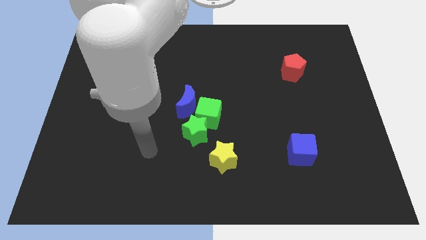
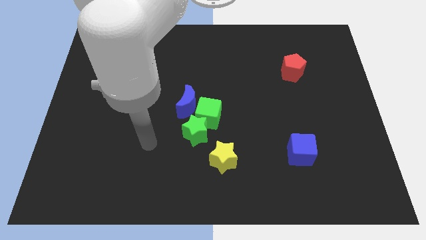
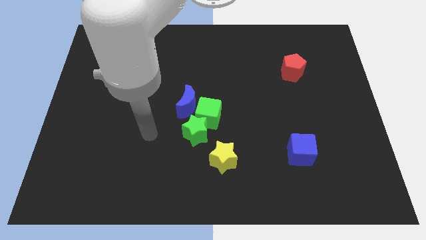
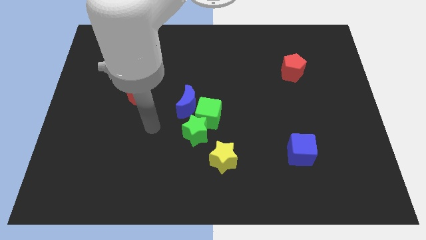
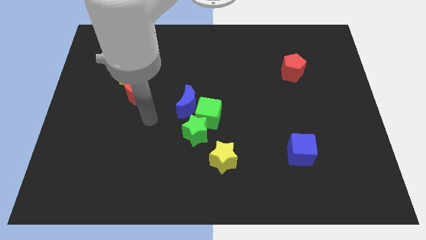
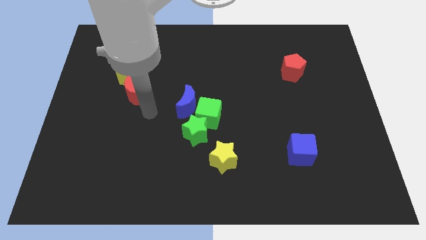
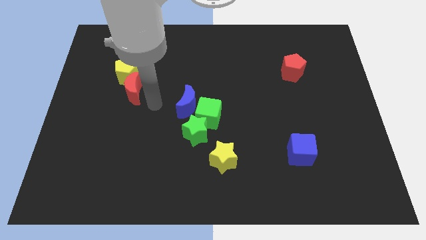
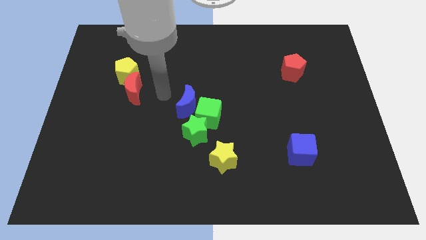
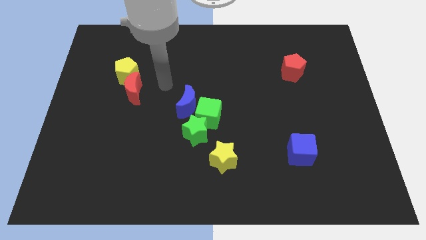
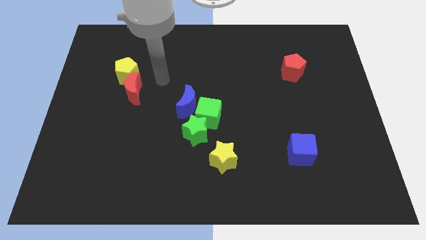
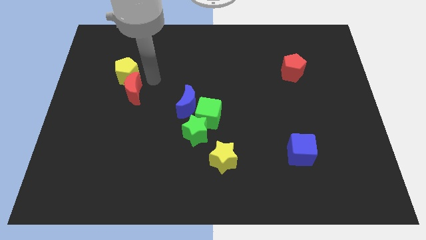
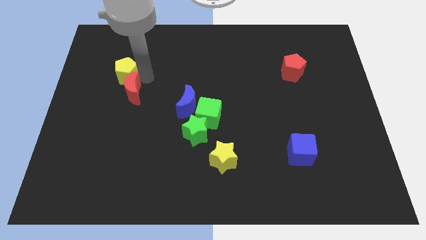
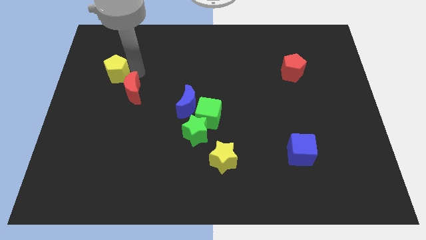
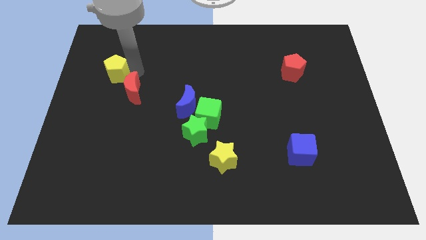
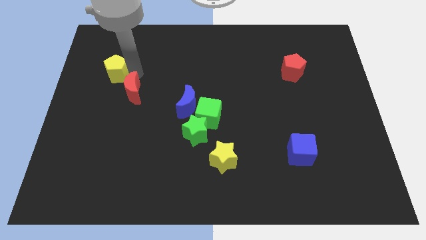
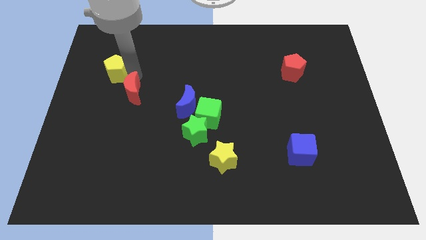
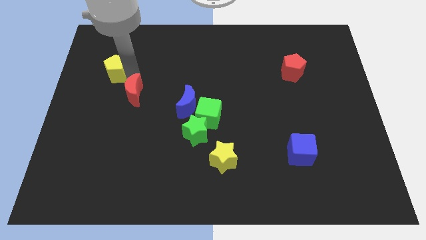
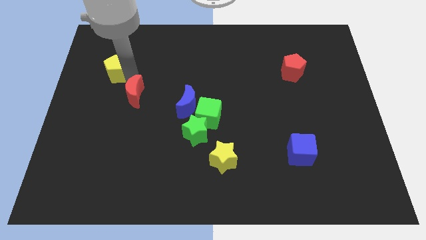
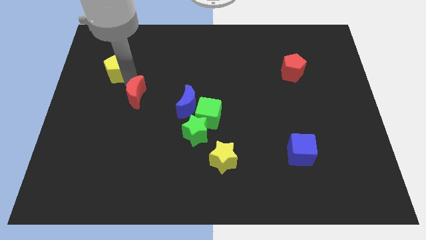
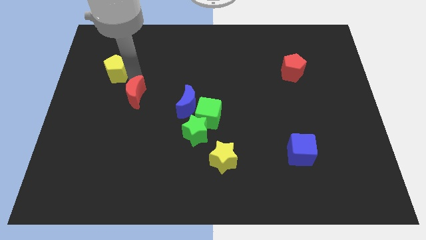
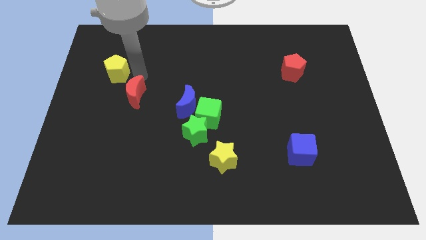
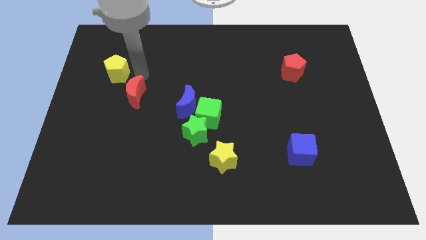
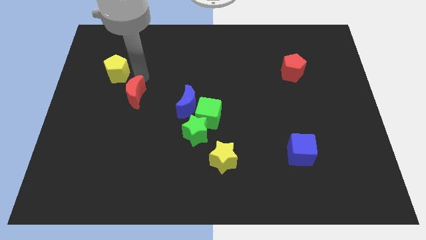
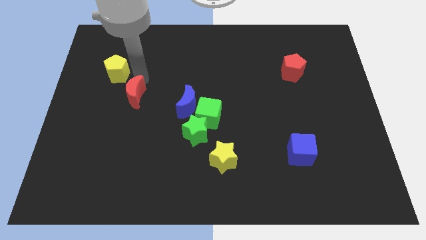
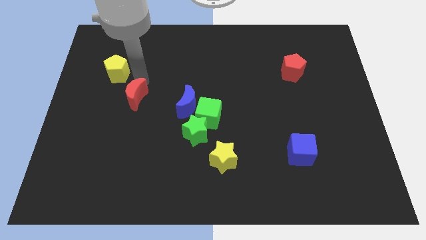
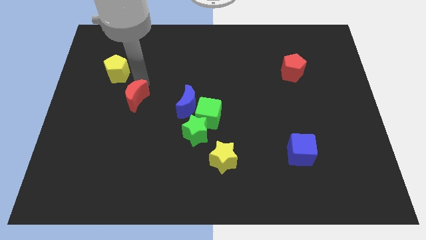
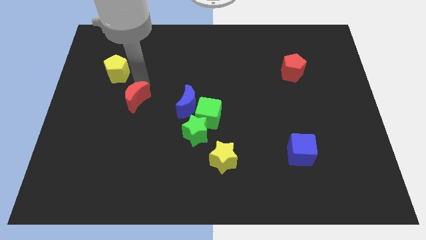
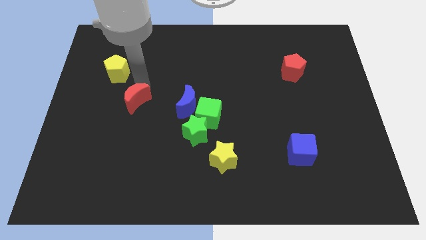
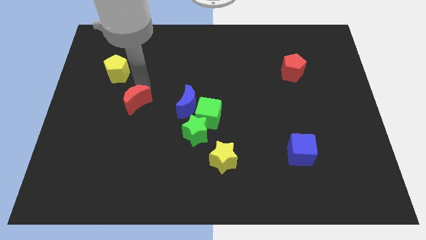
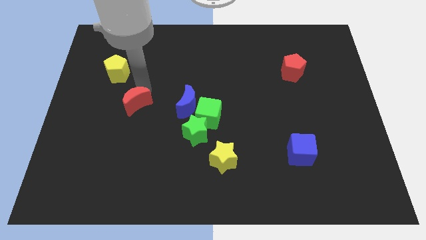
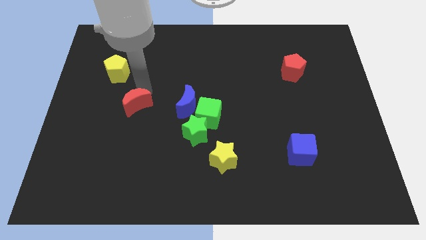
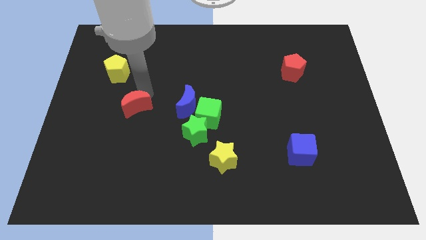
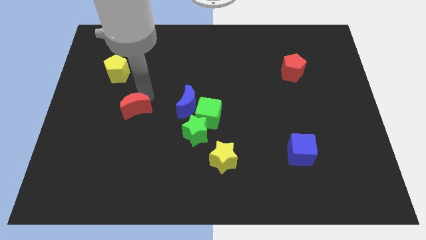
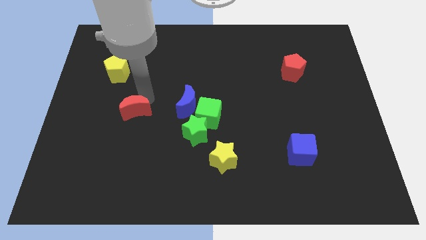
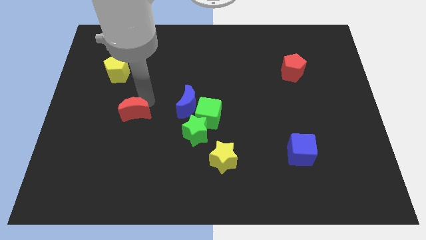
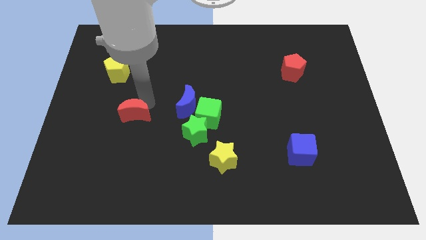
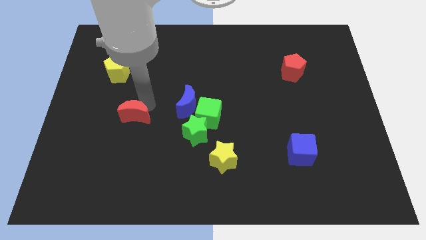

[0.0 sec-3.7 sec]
push the red moon somewhat downwards

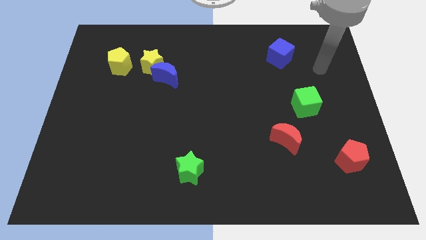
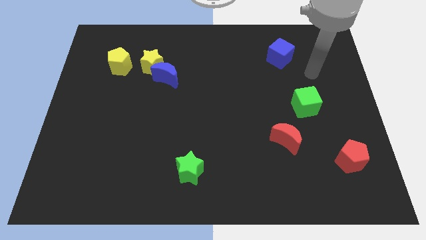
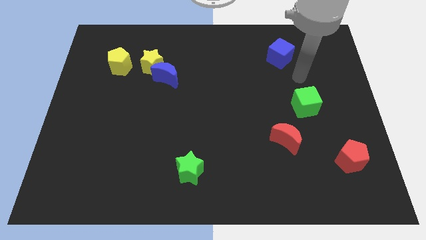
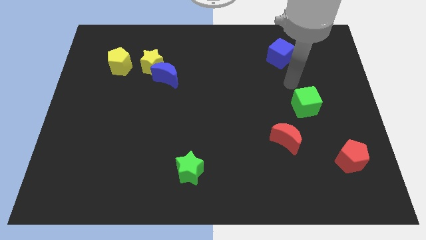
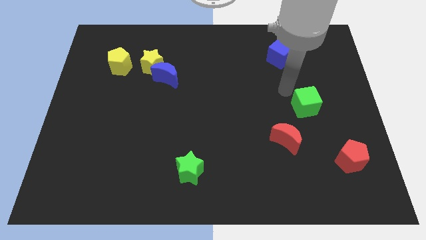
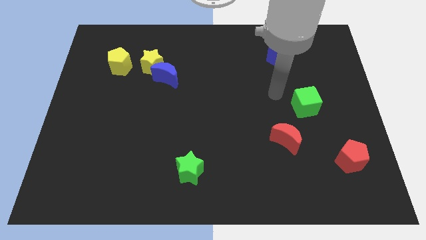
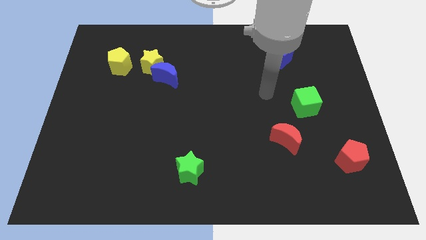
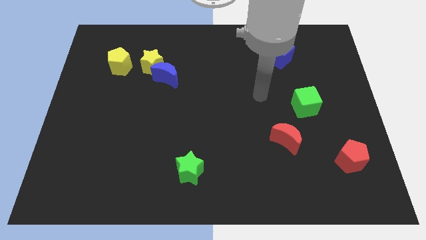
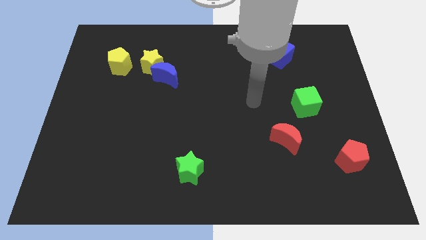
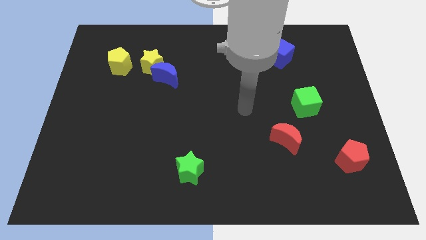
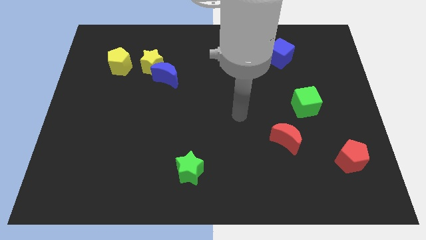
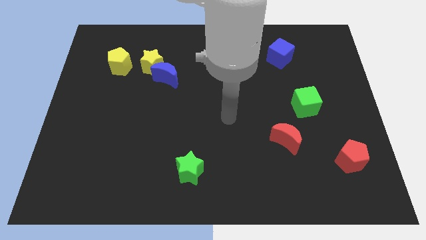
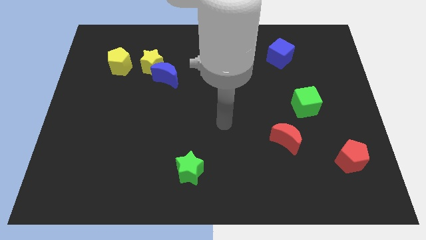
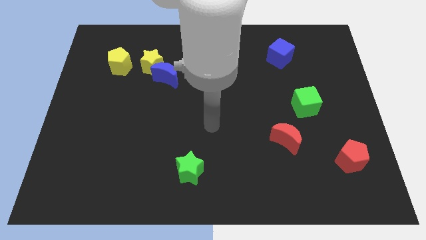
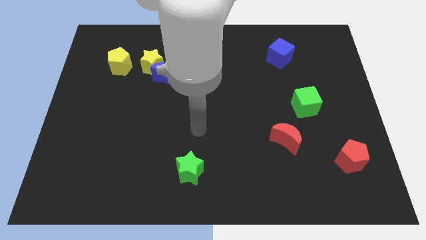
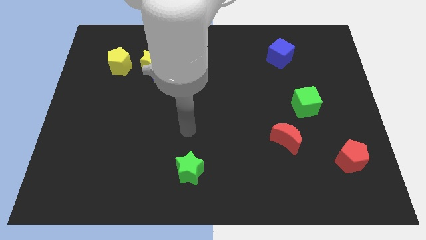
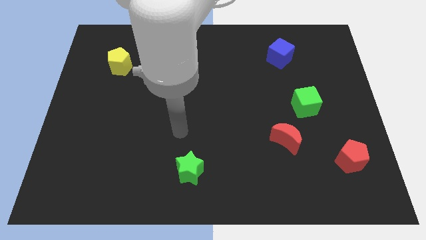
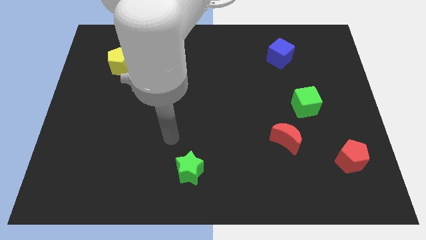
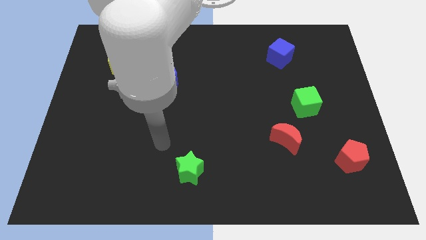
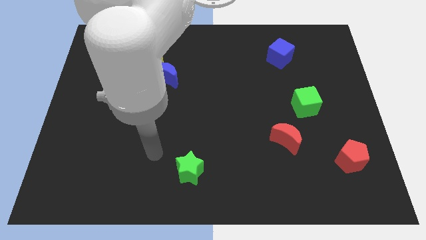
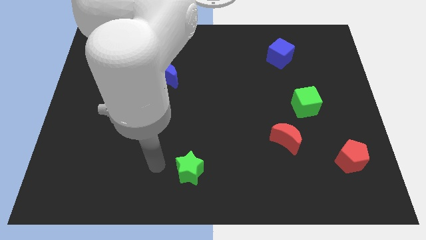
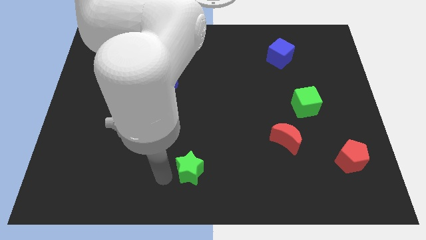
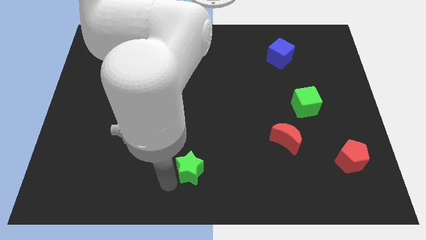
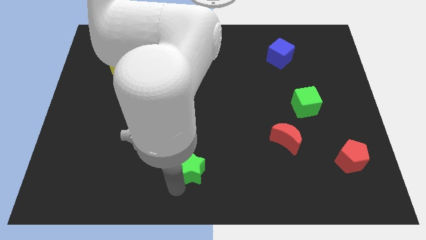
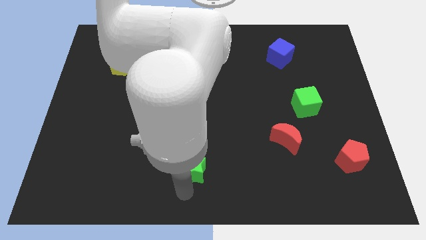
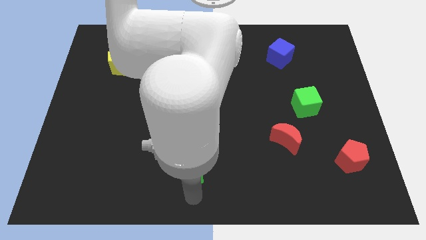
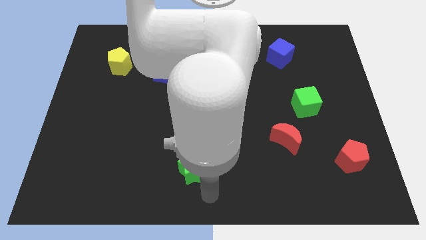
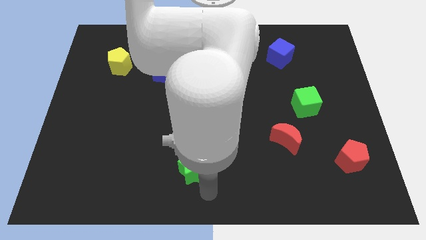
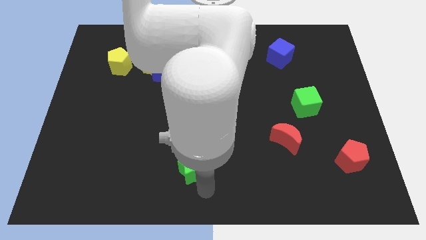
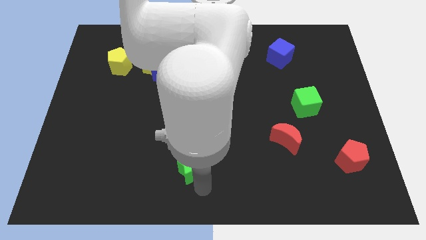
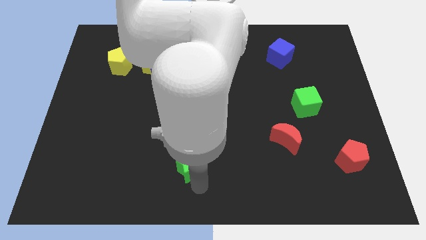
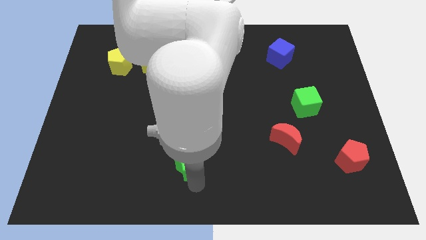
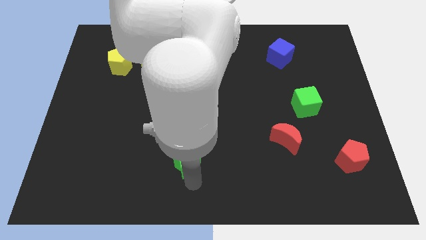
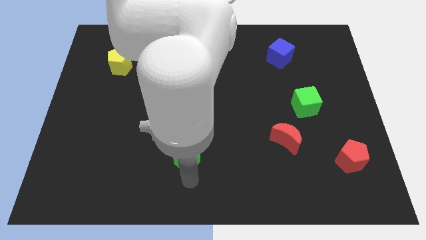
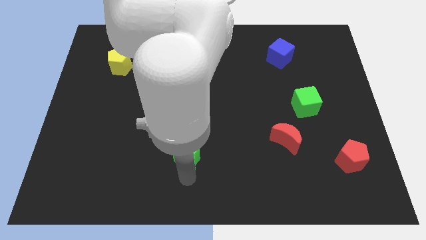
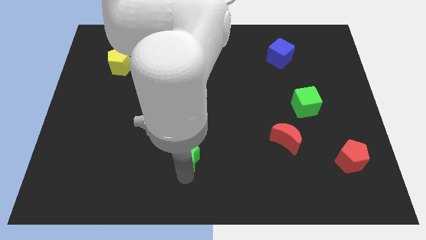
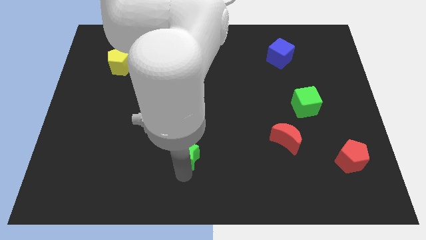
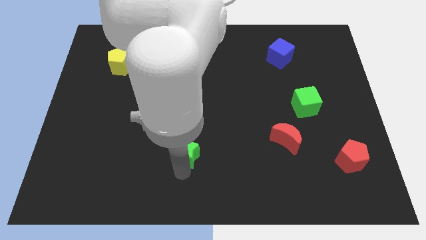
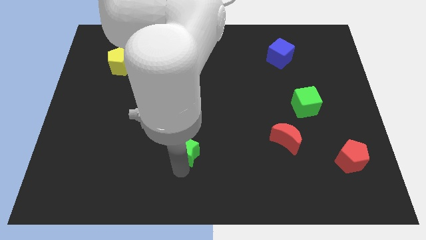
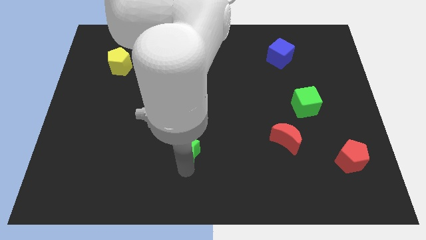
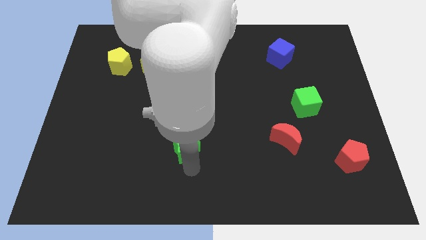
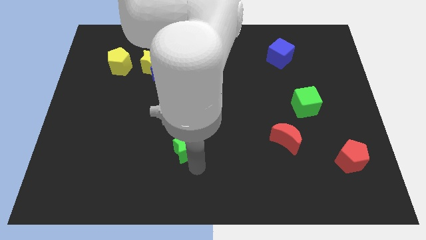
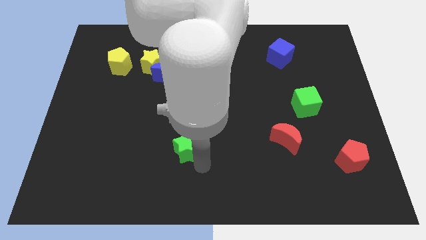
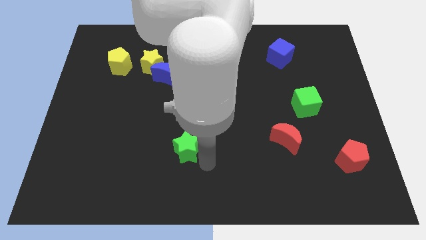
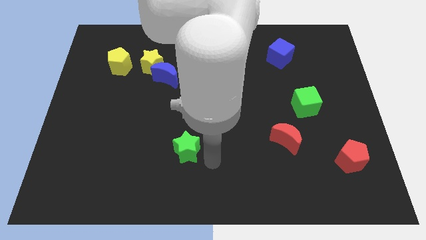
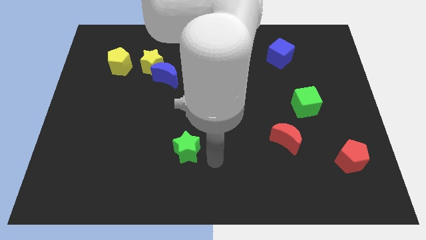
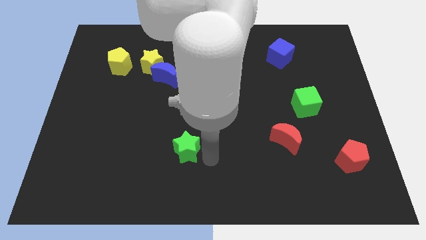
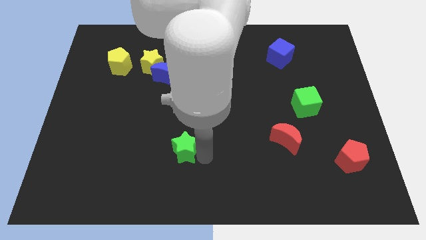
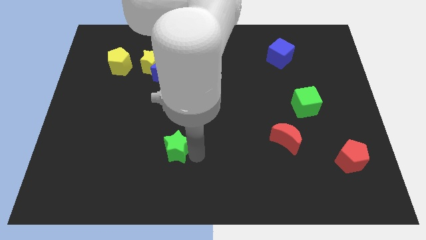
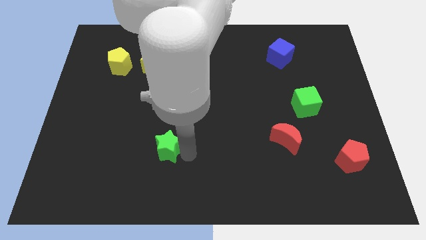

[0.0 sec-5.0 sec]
slide the green star upwards and then to the left a bit
